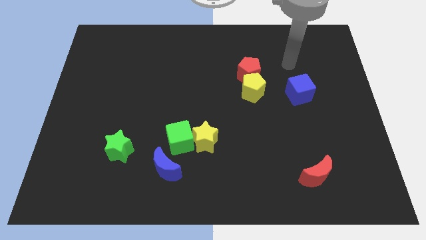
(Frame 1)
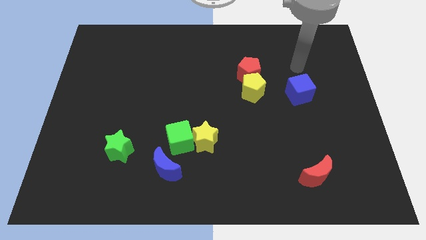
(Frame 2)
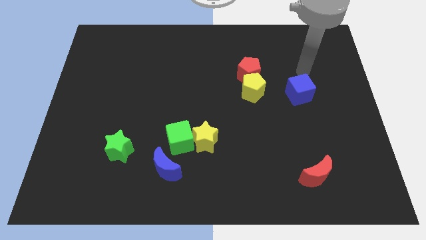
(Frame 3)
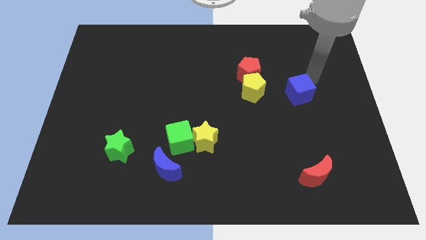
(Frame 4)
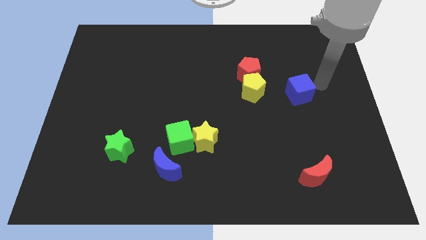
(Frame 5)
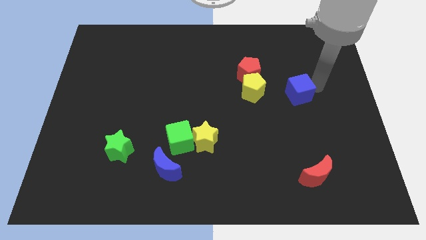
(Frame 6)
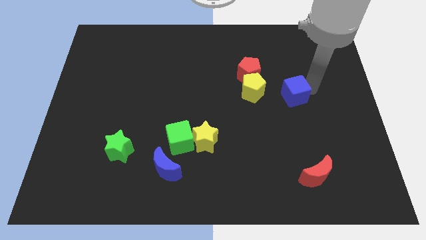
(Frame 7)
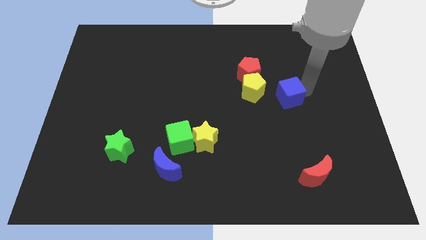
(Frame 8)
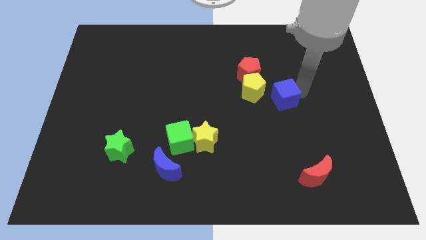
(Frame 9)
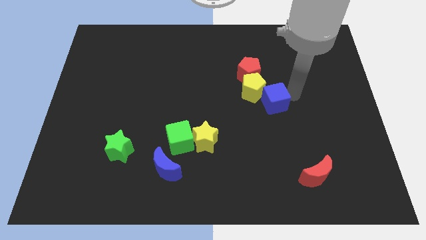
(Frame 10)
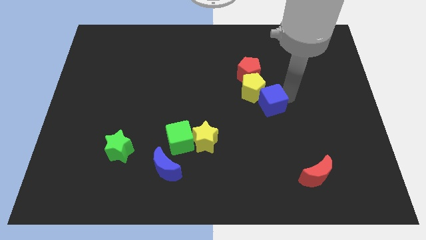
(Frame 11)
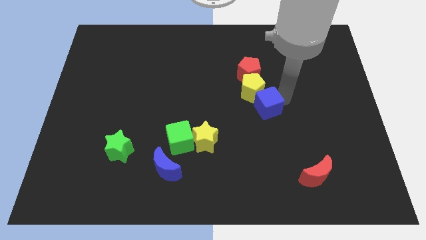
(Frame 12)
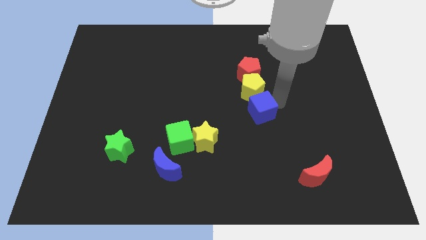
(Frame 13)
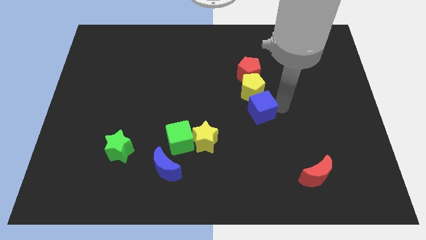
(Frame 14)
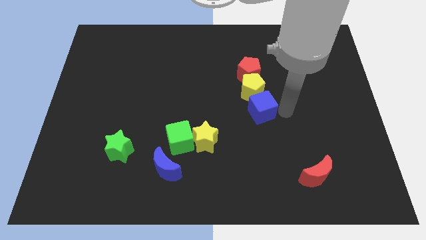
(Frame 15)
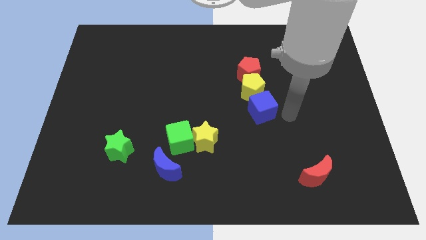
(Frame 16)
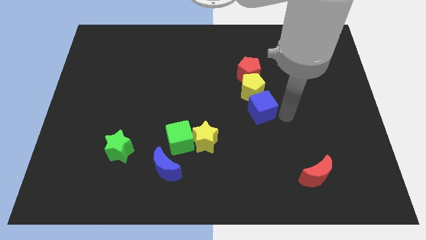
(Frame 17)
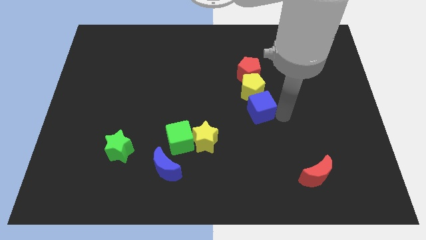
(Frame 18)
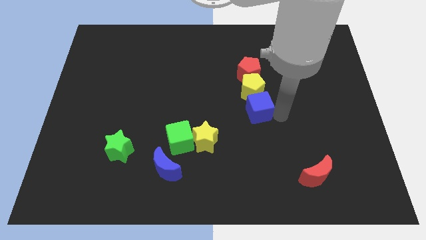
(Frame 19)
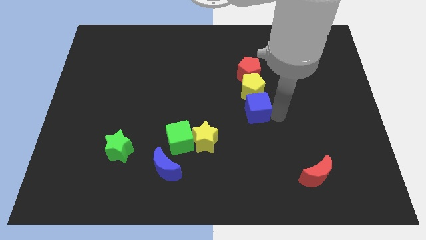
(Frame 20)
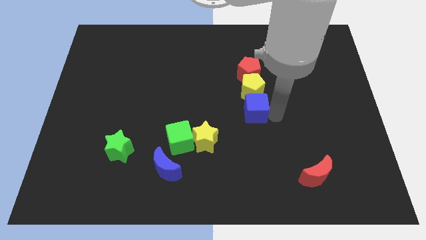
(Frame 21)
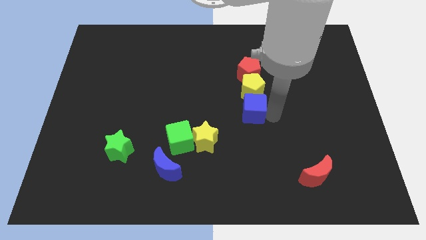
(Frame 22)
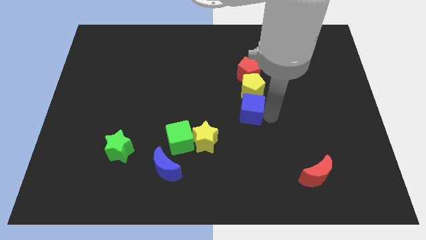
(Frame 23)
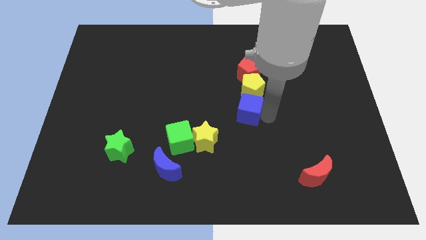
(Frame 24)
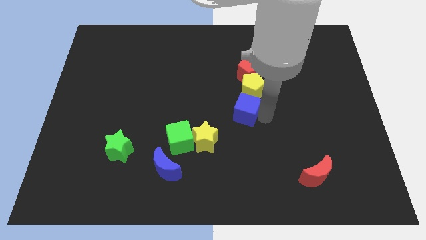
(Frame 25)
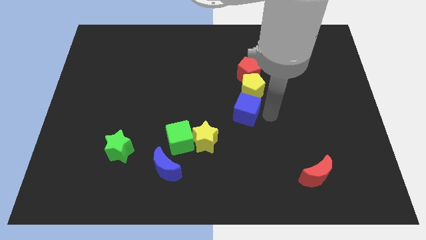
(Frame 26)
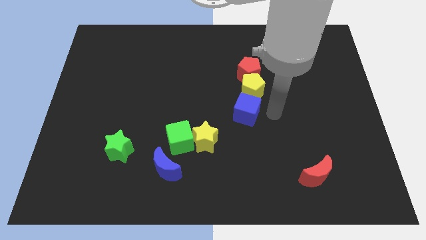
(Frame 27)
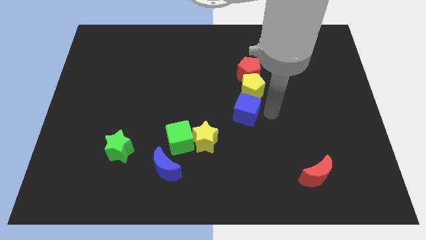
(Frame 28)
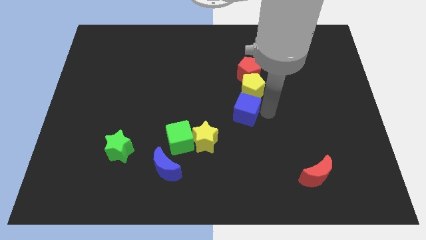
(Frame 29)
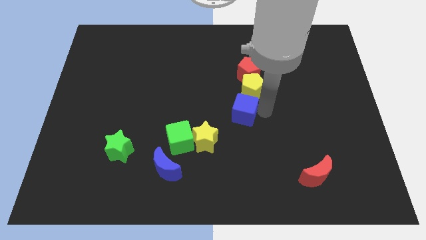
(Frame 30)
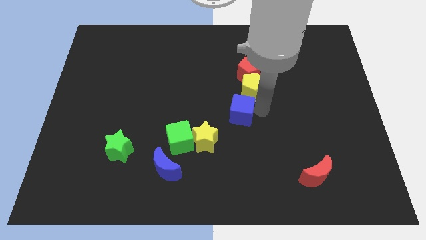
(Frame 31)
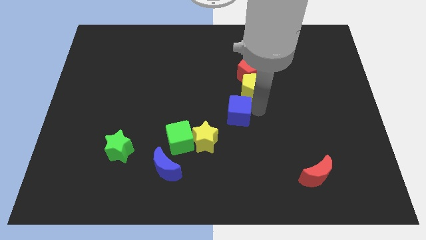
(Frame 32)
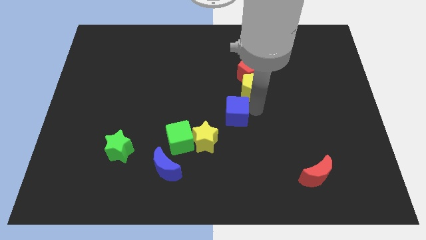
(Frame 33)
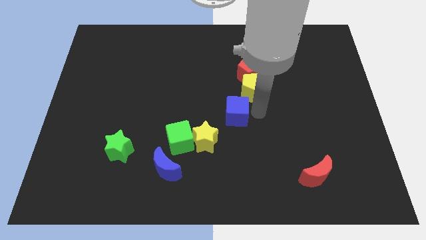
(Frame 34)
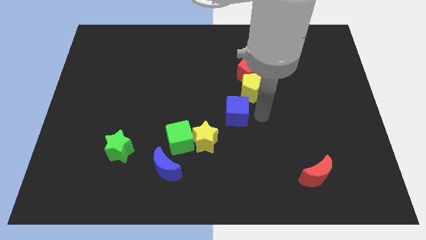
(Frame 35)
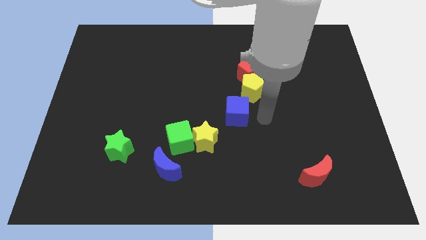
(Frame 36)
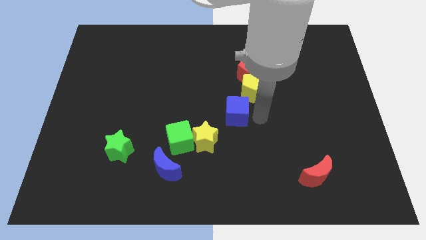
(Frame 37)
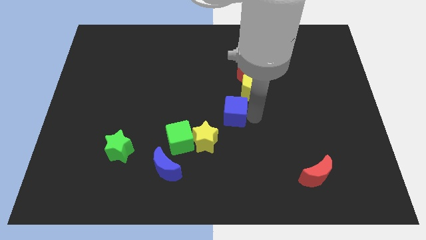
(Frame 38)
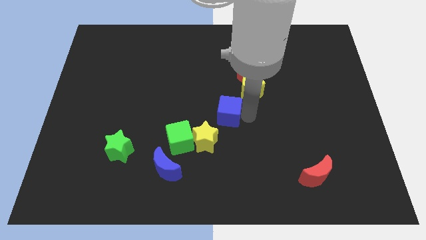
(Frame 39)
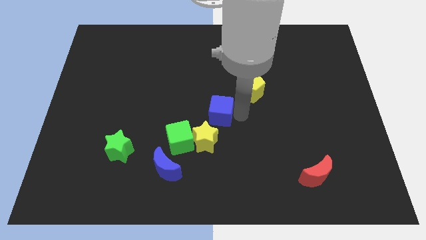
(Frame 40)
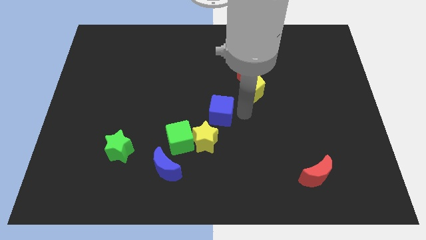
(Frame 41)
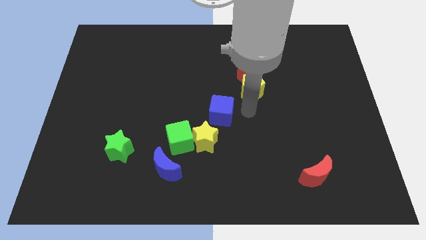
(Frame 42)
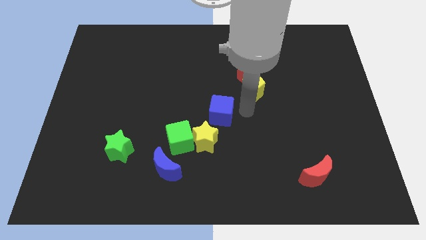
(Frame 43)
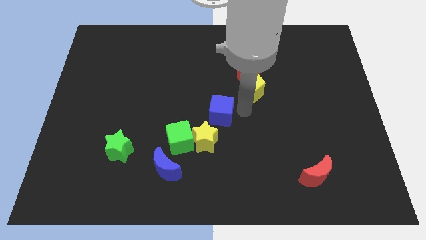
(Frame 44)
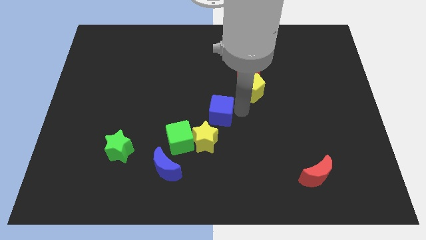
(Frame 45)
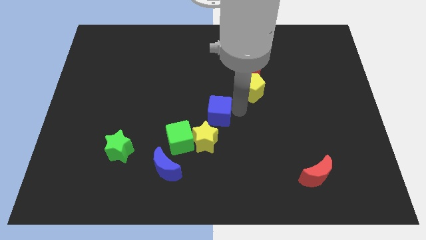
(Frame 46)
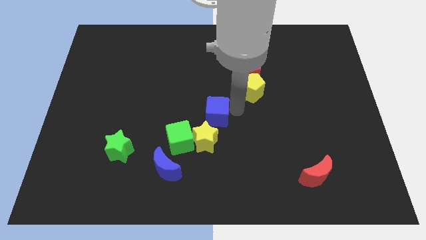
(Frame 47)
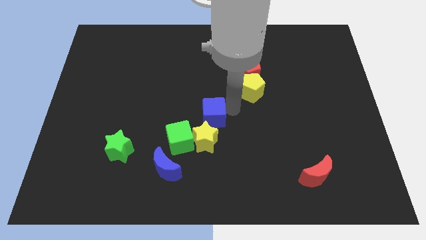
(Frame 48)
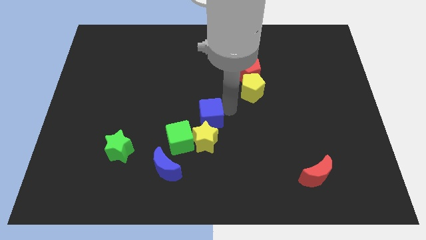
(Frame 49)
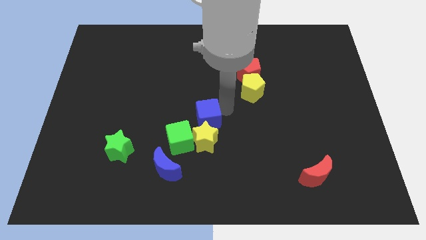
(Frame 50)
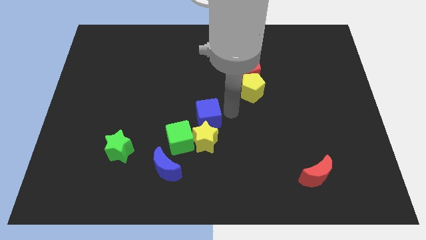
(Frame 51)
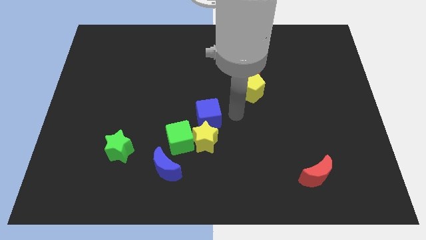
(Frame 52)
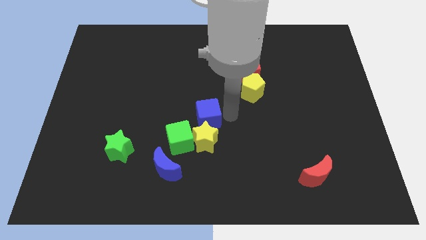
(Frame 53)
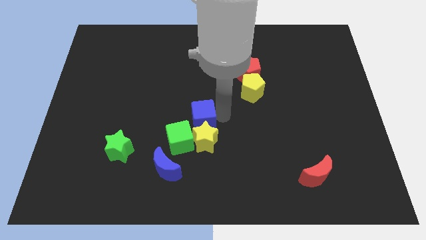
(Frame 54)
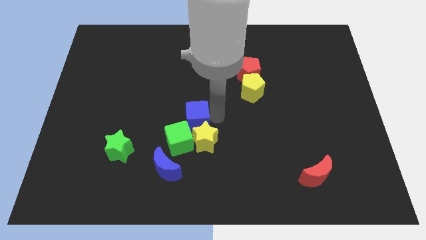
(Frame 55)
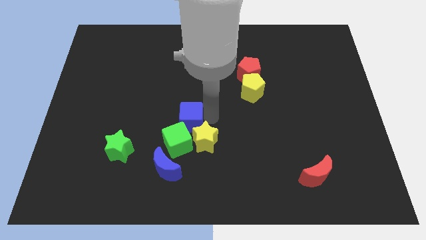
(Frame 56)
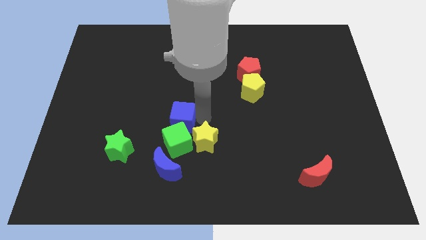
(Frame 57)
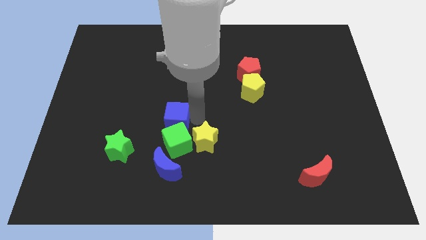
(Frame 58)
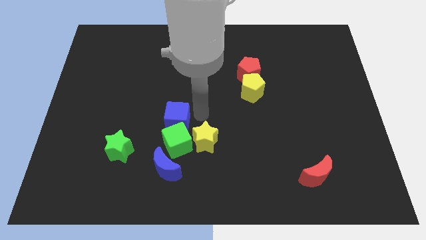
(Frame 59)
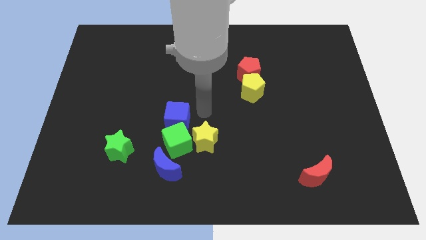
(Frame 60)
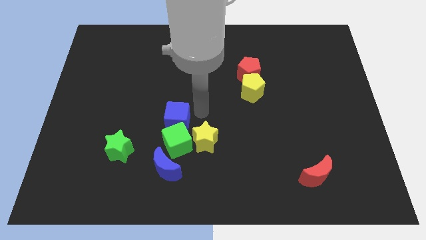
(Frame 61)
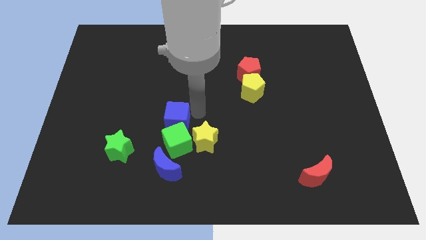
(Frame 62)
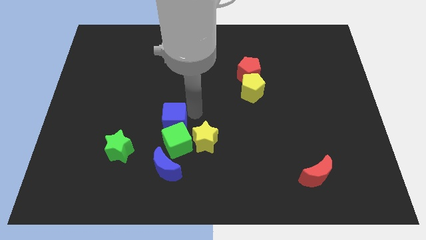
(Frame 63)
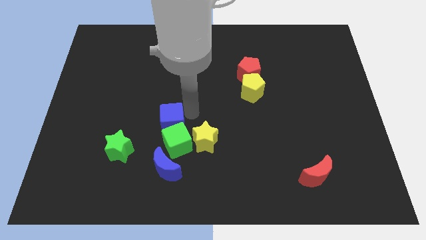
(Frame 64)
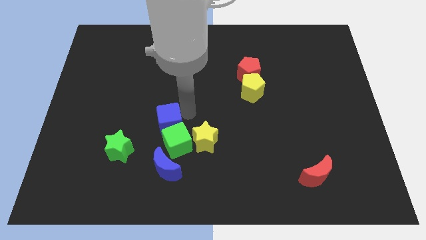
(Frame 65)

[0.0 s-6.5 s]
slide the blue cube to the top right of the green star

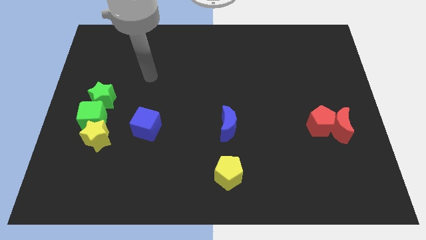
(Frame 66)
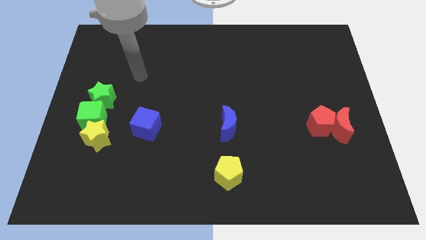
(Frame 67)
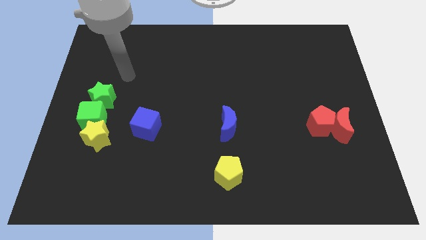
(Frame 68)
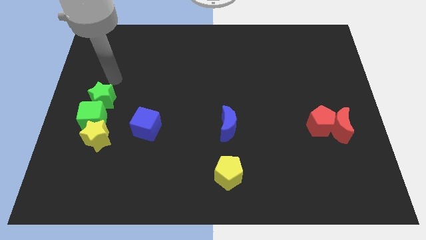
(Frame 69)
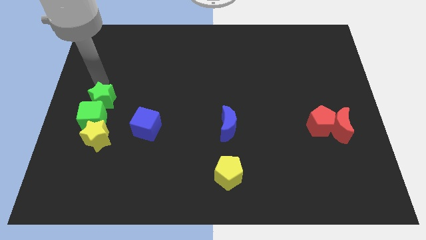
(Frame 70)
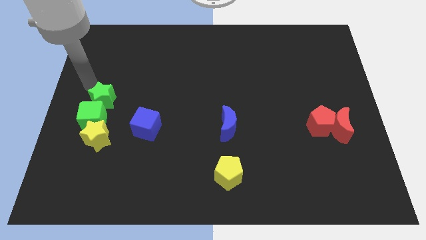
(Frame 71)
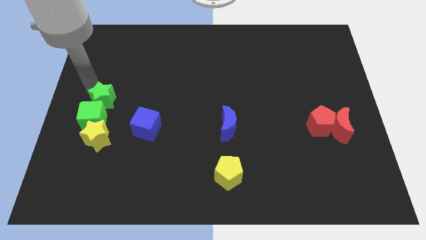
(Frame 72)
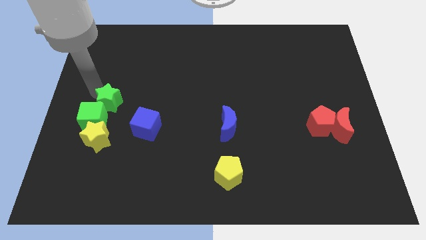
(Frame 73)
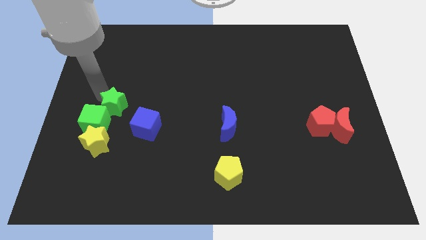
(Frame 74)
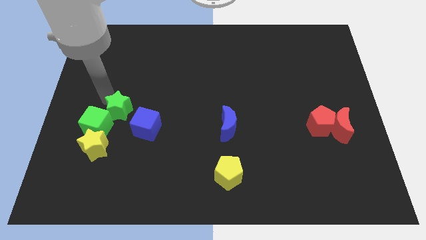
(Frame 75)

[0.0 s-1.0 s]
push the green star to the top right of the yellow star
